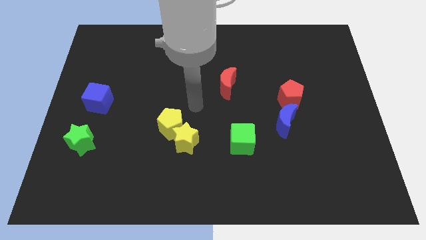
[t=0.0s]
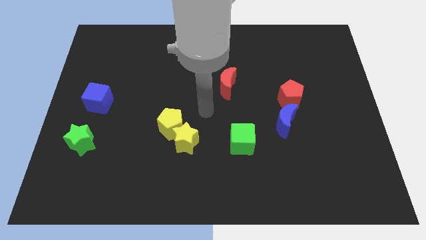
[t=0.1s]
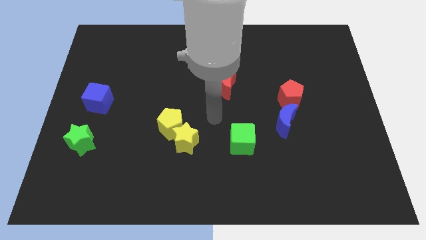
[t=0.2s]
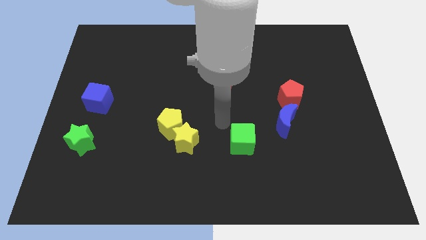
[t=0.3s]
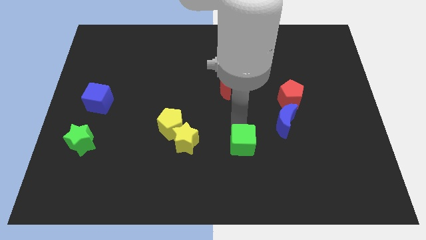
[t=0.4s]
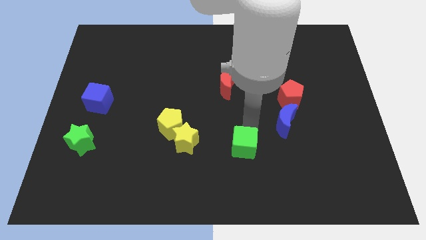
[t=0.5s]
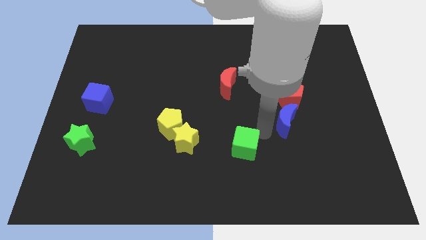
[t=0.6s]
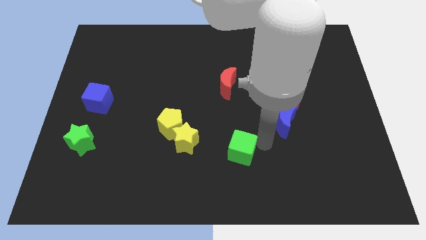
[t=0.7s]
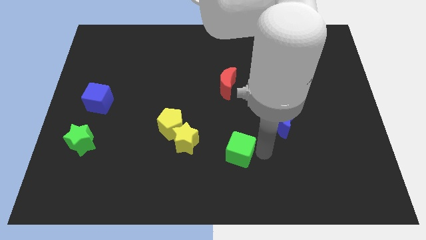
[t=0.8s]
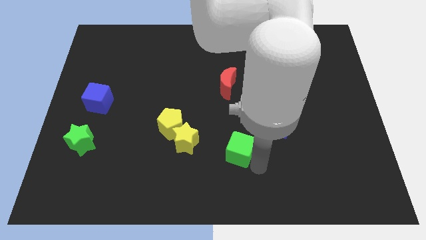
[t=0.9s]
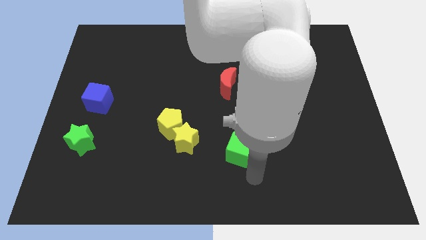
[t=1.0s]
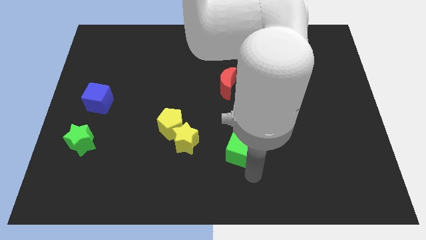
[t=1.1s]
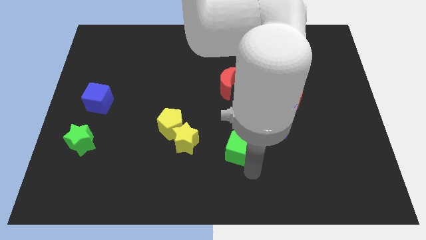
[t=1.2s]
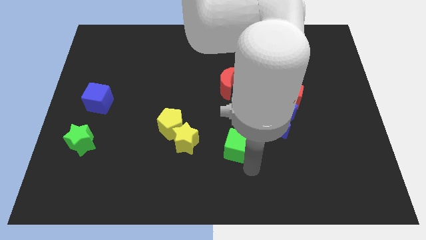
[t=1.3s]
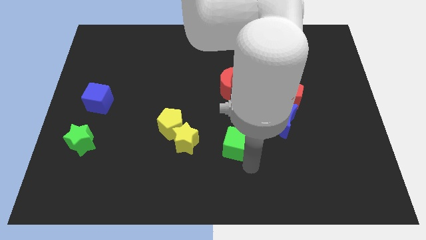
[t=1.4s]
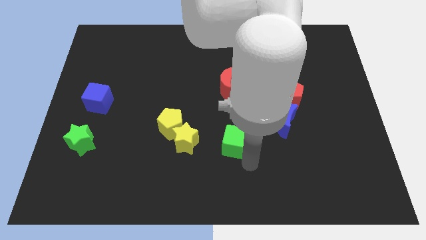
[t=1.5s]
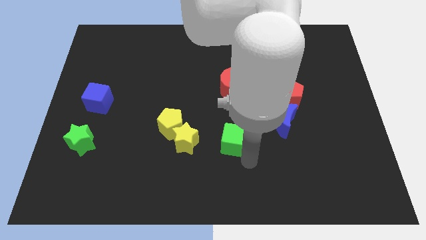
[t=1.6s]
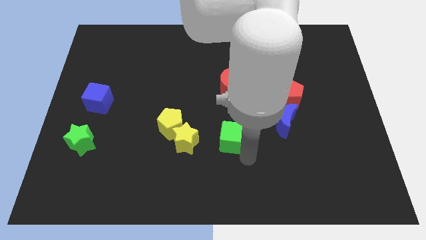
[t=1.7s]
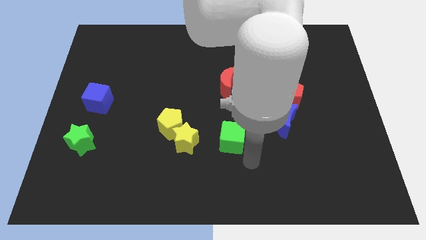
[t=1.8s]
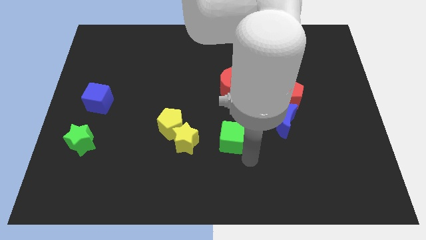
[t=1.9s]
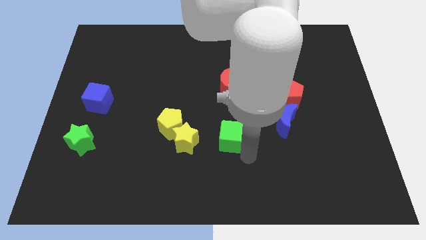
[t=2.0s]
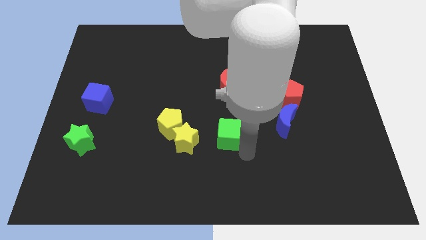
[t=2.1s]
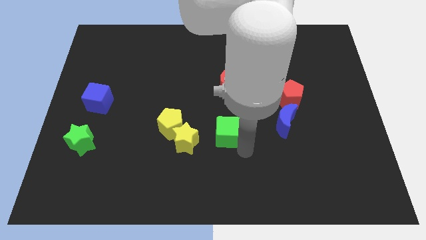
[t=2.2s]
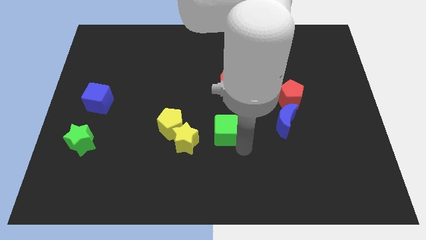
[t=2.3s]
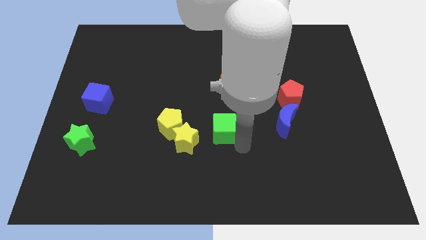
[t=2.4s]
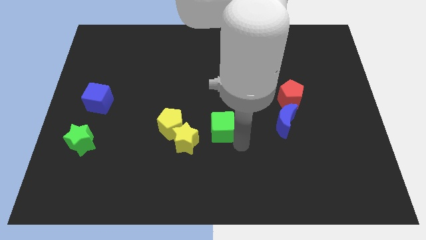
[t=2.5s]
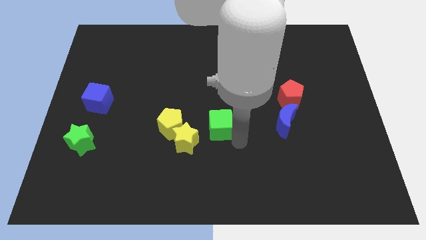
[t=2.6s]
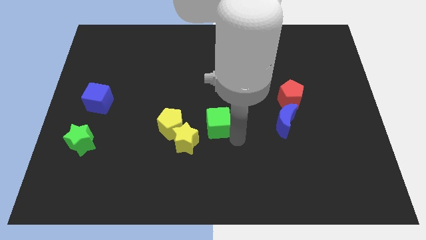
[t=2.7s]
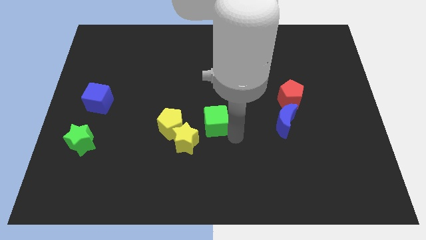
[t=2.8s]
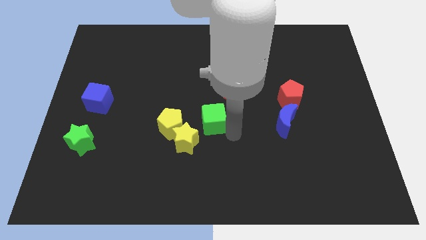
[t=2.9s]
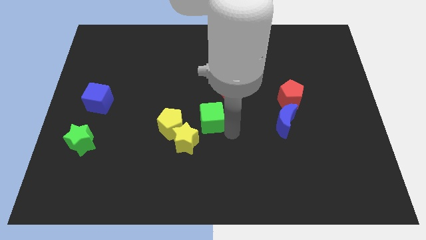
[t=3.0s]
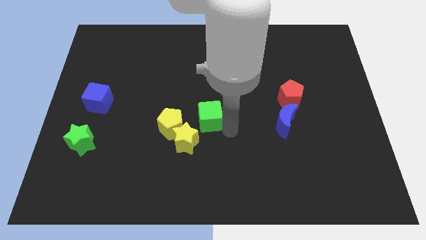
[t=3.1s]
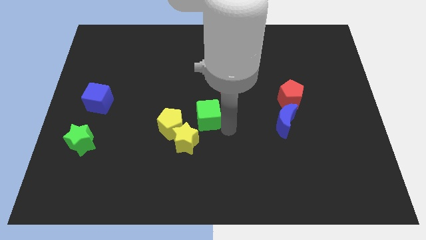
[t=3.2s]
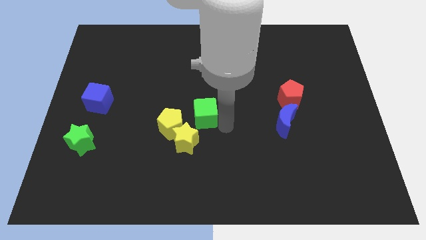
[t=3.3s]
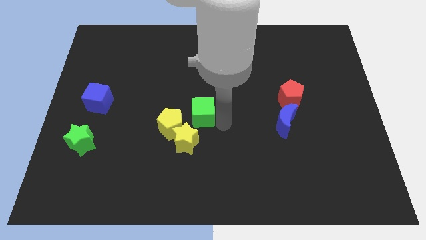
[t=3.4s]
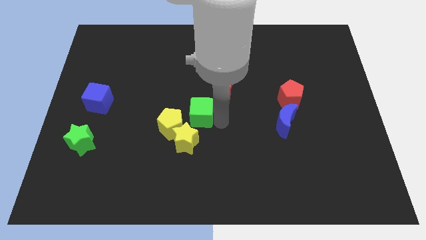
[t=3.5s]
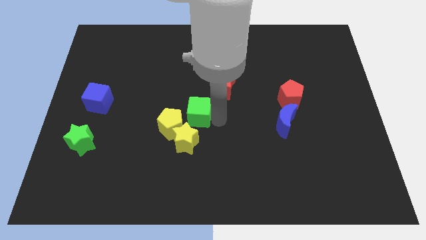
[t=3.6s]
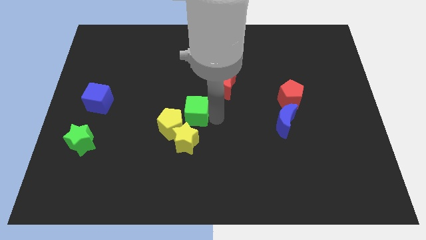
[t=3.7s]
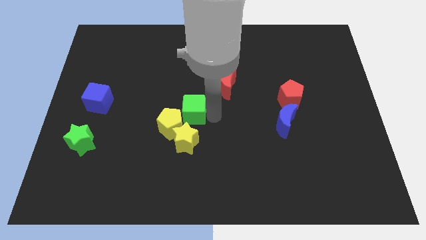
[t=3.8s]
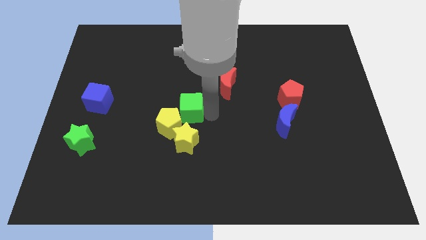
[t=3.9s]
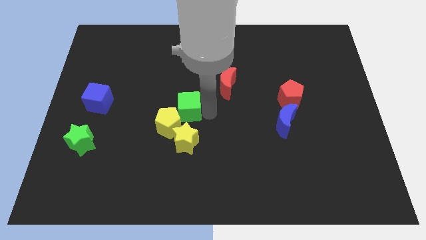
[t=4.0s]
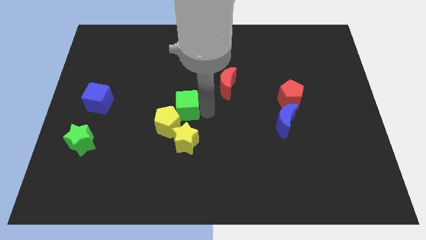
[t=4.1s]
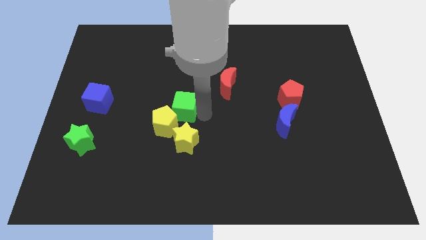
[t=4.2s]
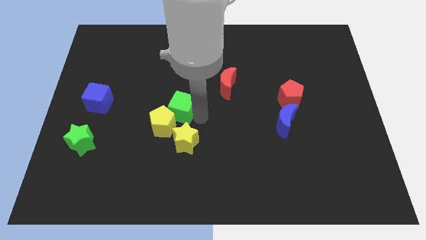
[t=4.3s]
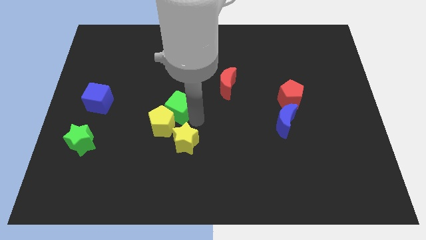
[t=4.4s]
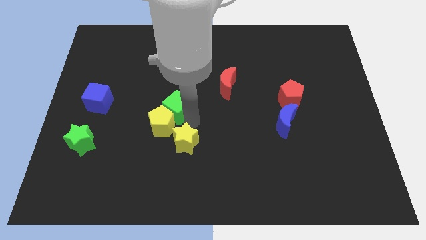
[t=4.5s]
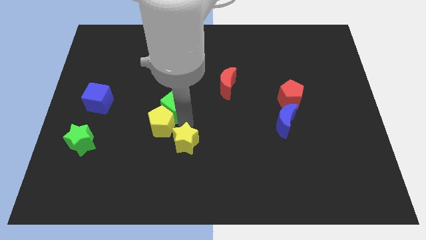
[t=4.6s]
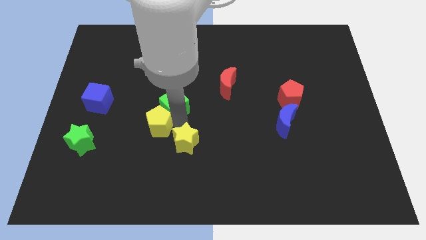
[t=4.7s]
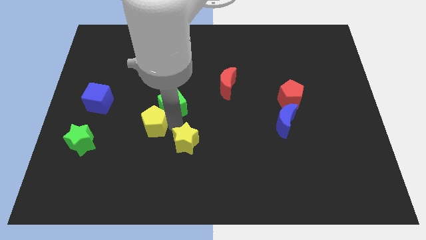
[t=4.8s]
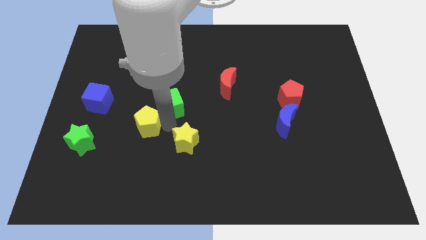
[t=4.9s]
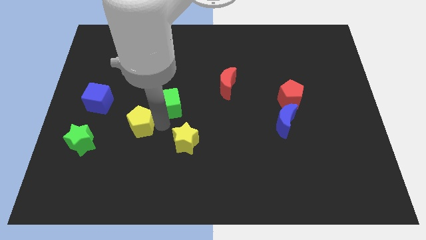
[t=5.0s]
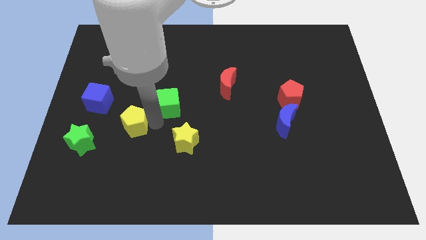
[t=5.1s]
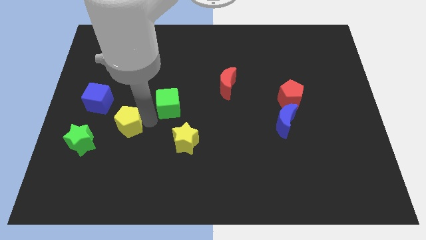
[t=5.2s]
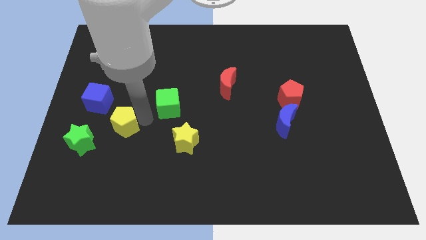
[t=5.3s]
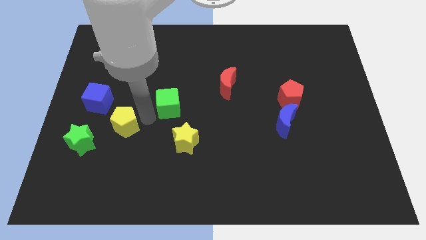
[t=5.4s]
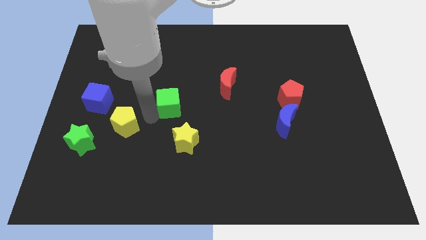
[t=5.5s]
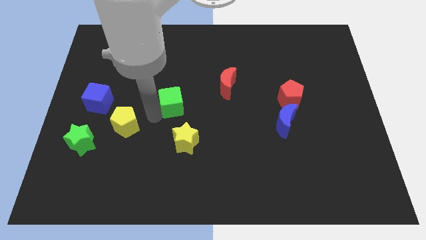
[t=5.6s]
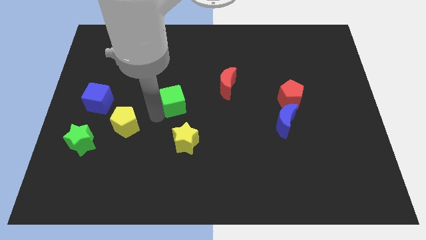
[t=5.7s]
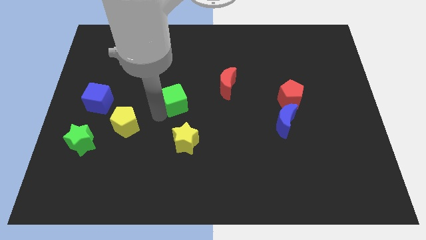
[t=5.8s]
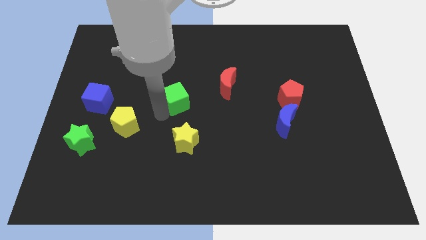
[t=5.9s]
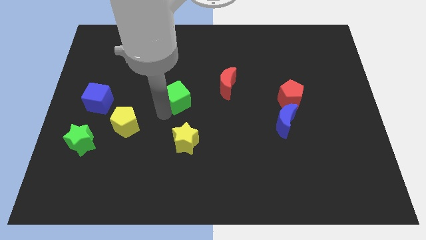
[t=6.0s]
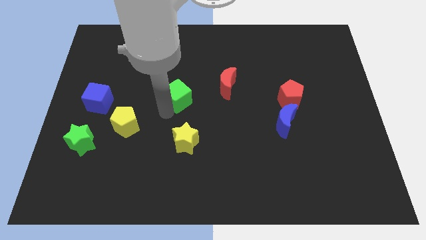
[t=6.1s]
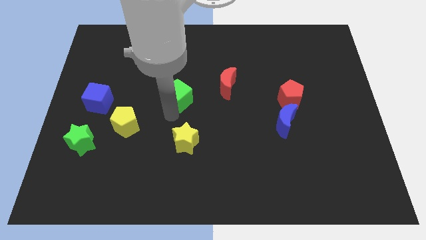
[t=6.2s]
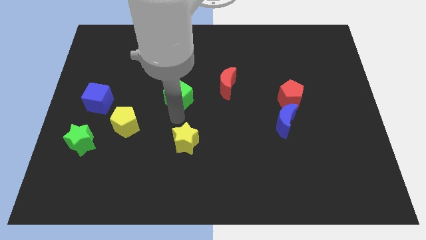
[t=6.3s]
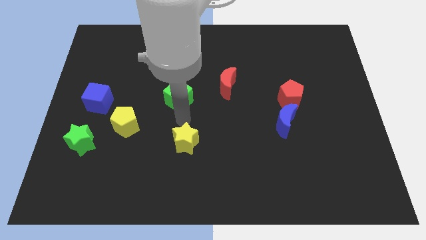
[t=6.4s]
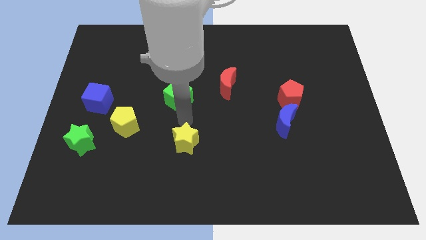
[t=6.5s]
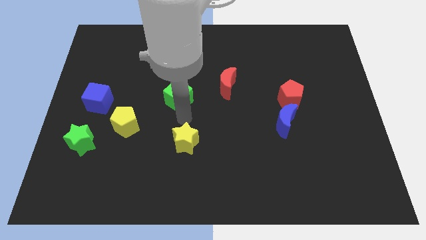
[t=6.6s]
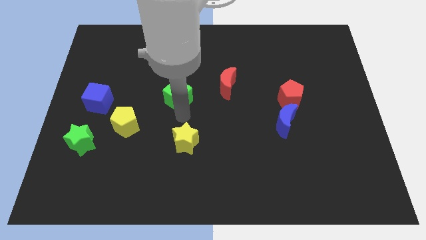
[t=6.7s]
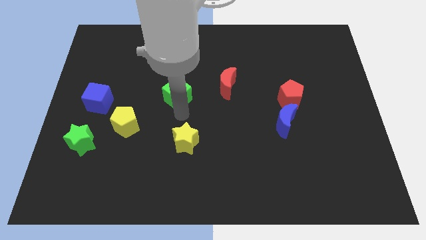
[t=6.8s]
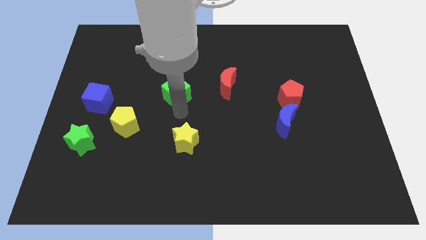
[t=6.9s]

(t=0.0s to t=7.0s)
push the green cube up and to the left

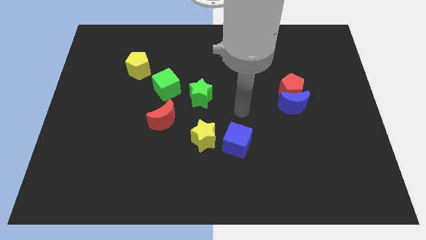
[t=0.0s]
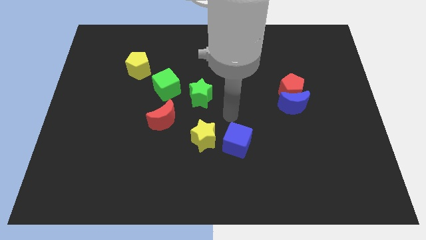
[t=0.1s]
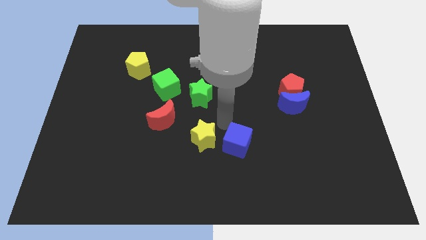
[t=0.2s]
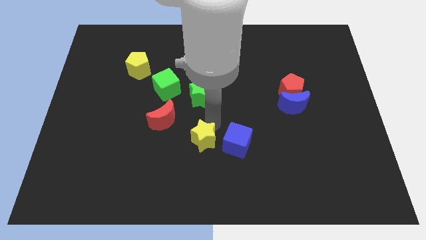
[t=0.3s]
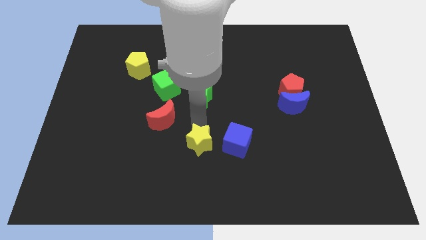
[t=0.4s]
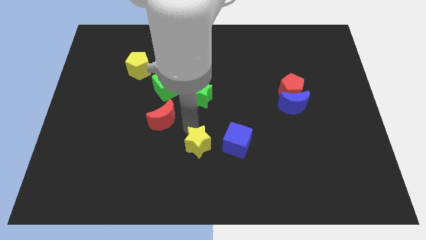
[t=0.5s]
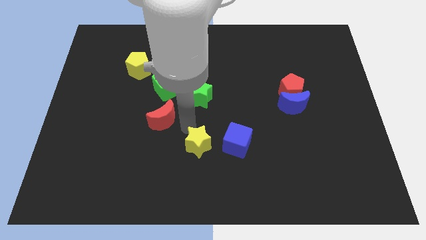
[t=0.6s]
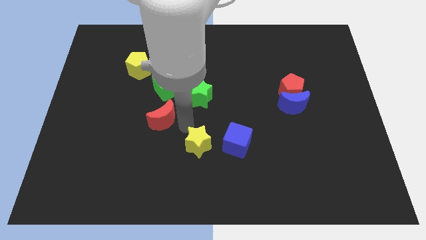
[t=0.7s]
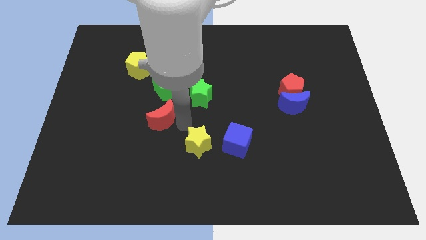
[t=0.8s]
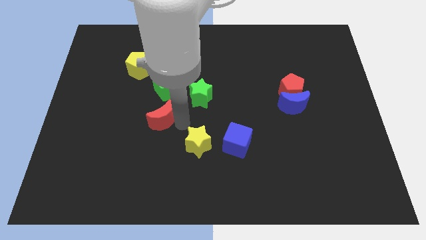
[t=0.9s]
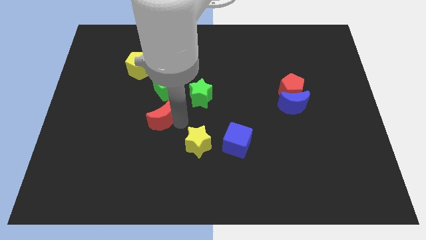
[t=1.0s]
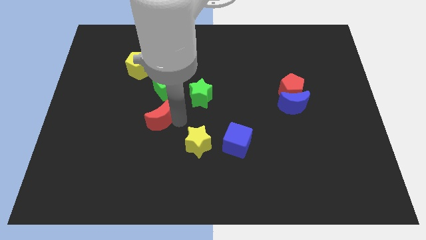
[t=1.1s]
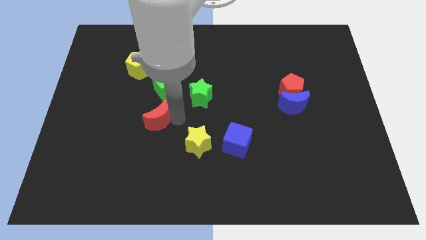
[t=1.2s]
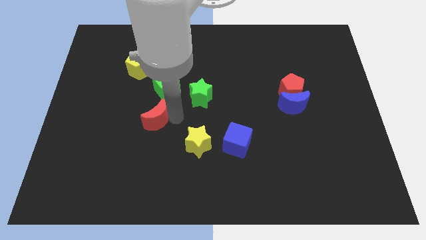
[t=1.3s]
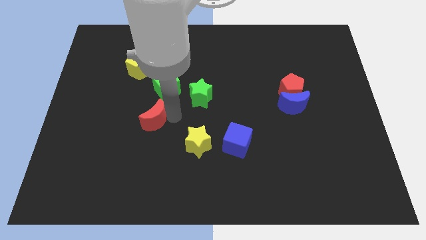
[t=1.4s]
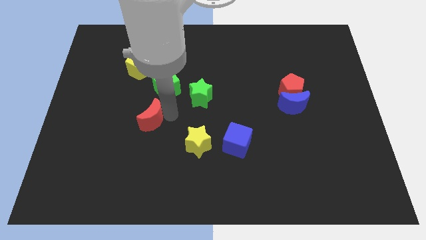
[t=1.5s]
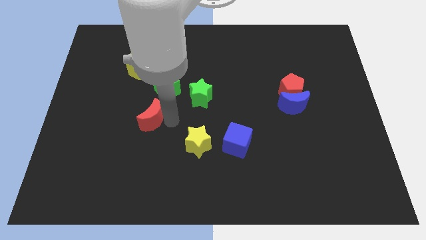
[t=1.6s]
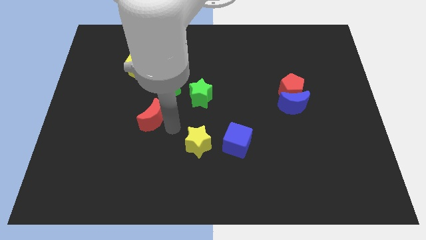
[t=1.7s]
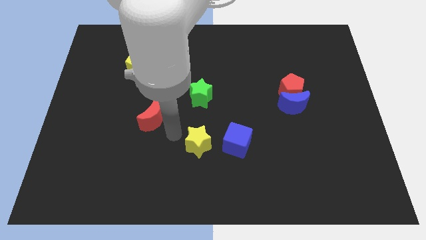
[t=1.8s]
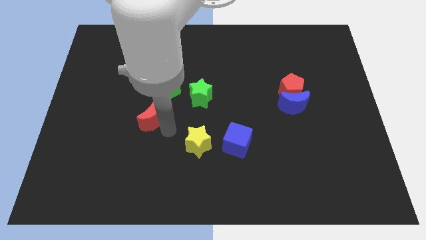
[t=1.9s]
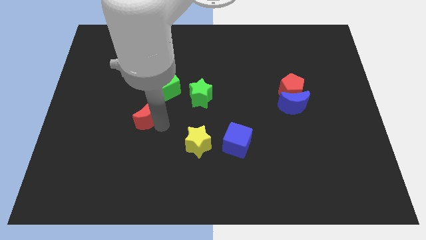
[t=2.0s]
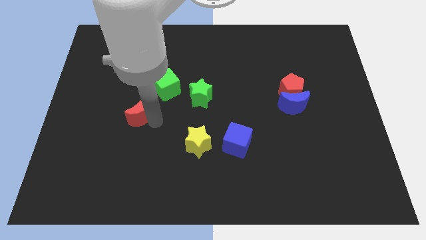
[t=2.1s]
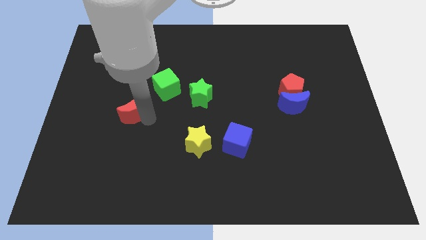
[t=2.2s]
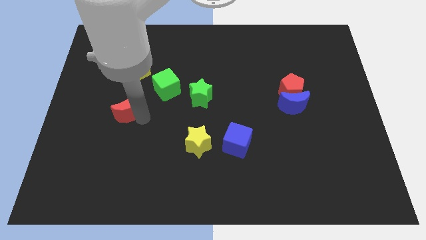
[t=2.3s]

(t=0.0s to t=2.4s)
move the red moon a bit upwards and then to the left
